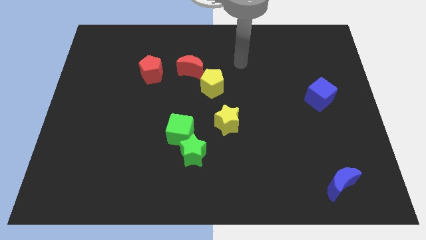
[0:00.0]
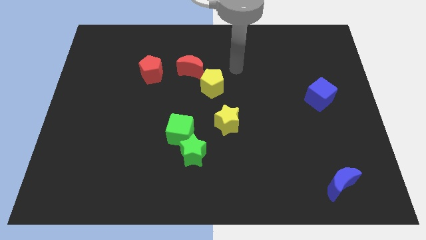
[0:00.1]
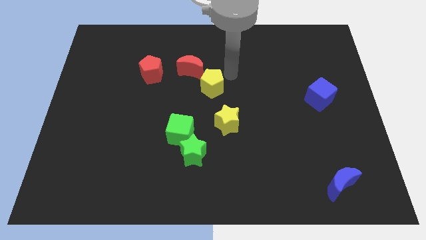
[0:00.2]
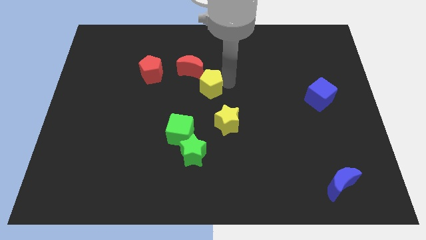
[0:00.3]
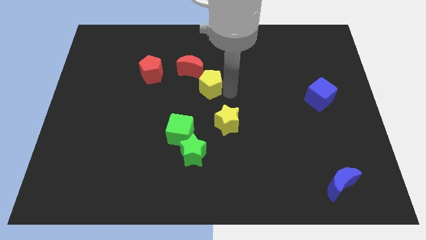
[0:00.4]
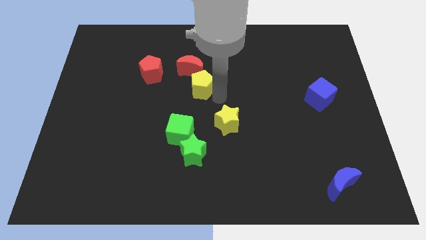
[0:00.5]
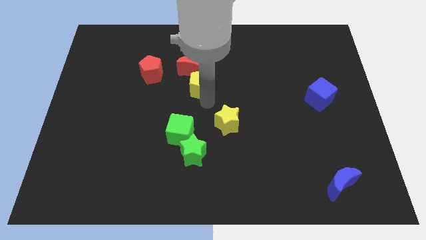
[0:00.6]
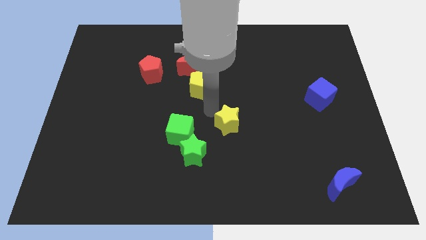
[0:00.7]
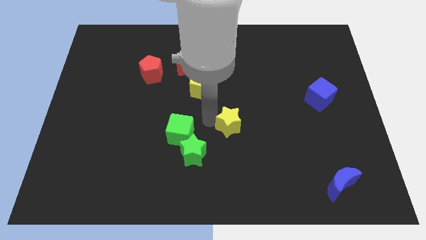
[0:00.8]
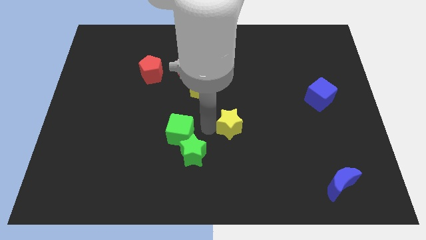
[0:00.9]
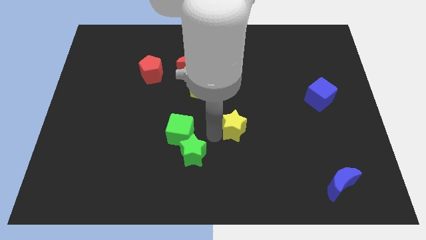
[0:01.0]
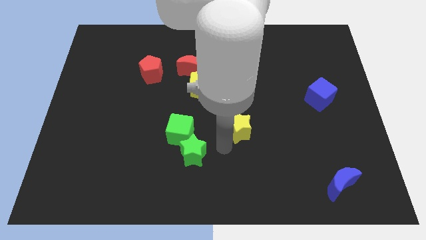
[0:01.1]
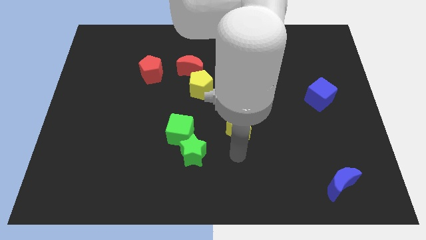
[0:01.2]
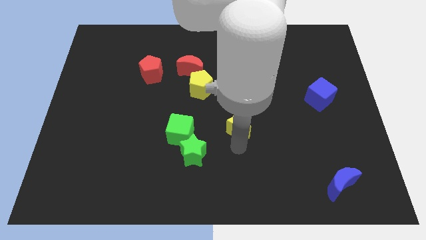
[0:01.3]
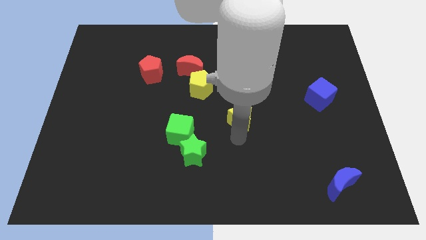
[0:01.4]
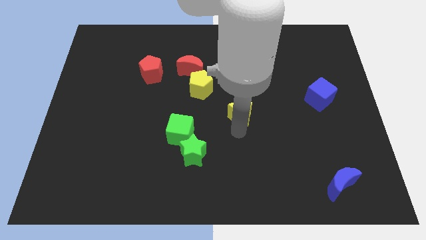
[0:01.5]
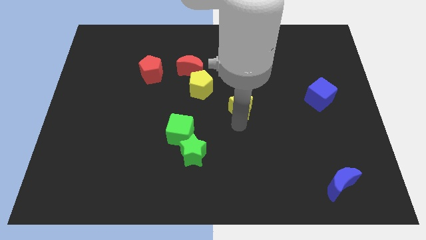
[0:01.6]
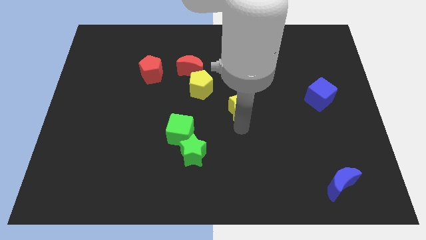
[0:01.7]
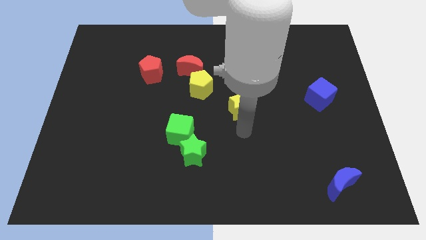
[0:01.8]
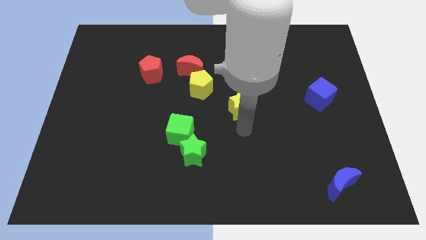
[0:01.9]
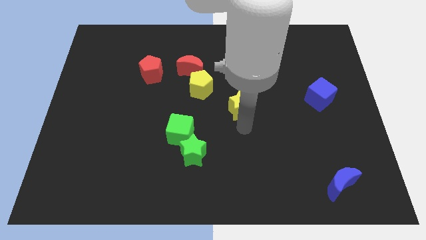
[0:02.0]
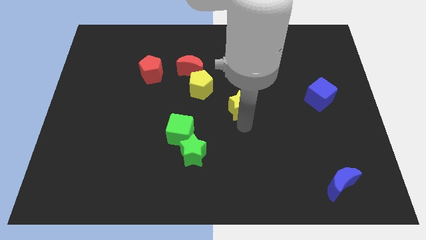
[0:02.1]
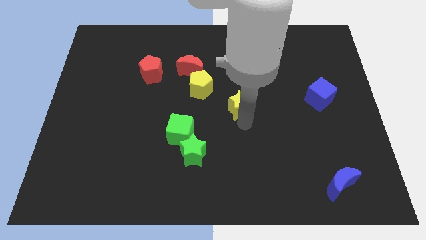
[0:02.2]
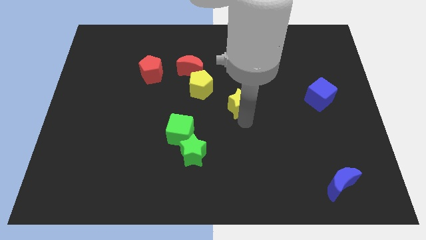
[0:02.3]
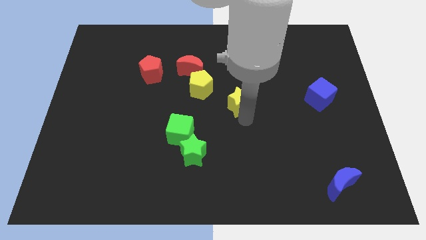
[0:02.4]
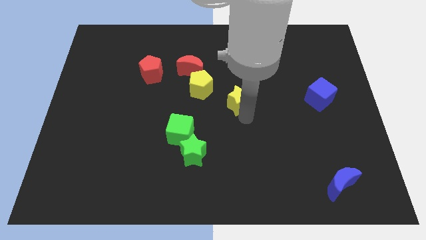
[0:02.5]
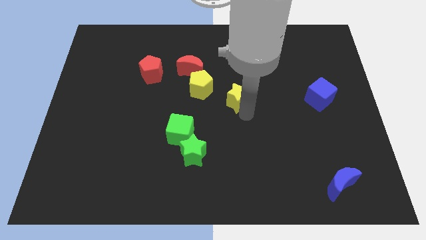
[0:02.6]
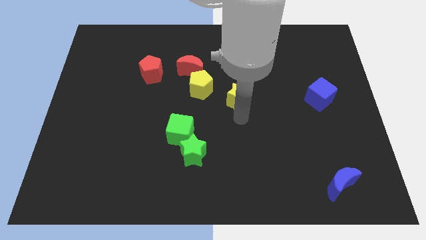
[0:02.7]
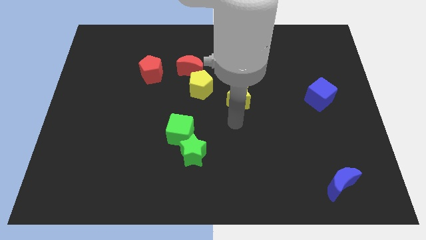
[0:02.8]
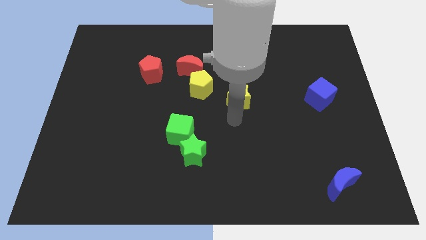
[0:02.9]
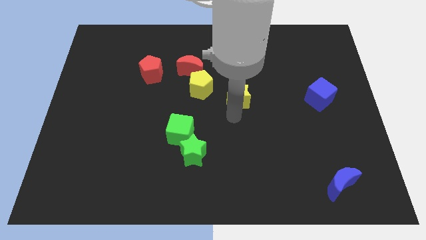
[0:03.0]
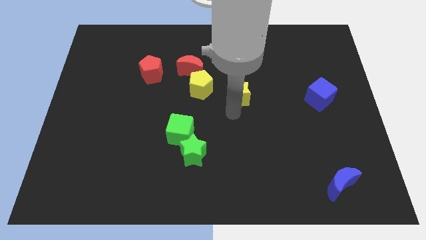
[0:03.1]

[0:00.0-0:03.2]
slightly push the yellow star up

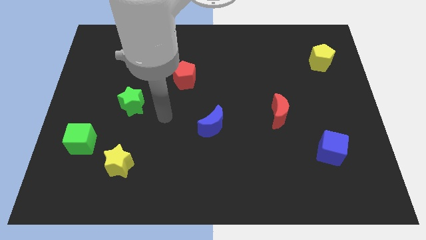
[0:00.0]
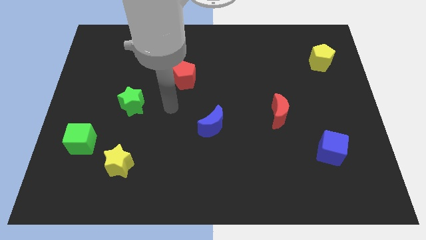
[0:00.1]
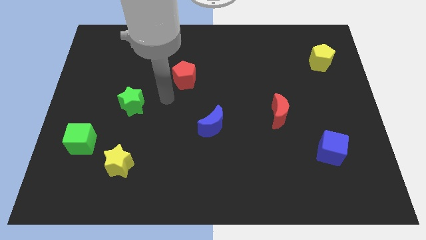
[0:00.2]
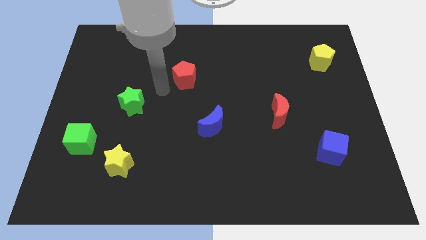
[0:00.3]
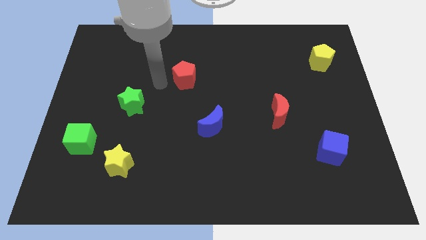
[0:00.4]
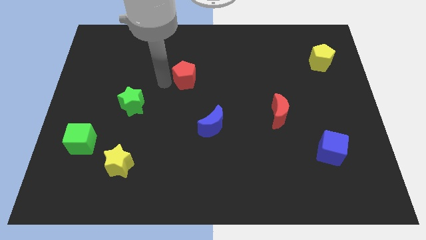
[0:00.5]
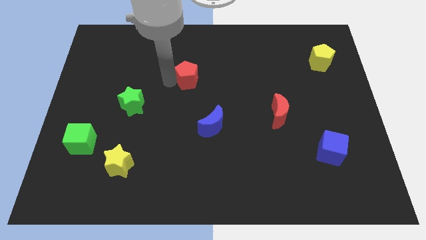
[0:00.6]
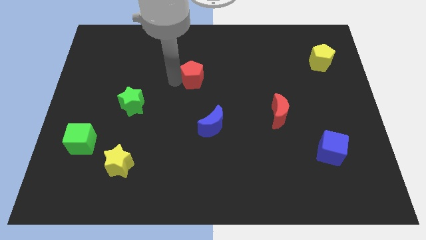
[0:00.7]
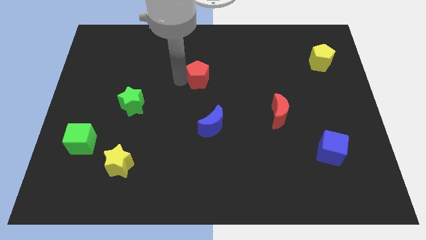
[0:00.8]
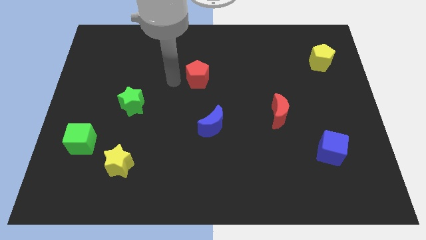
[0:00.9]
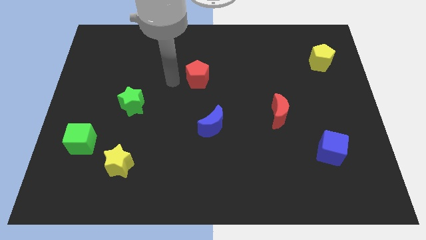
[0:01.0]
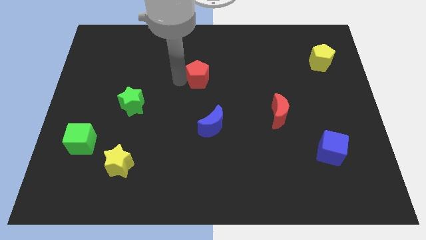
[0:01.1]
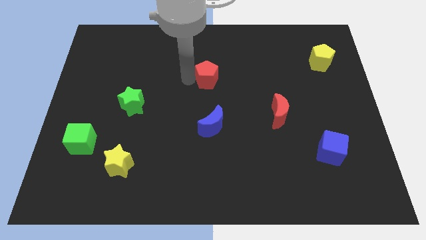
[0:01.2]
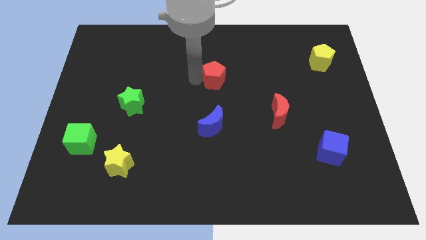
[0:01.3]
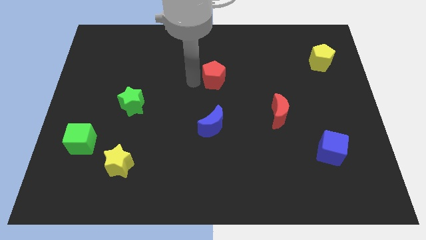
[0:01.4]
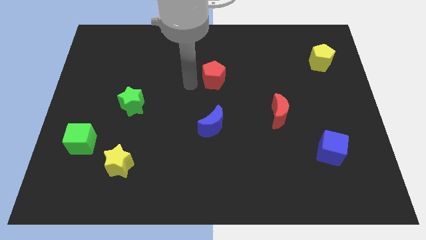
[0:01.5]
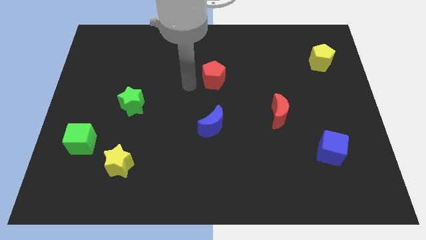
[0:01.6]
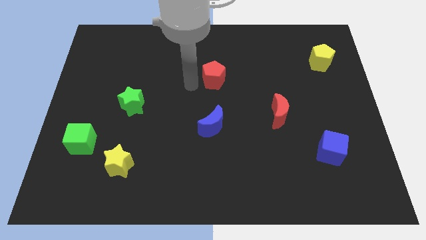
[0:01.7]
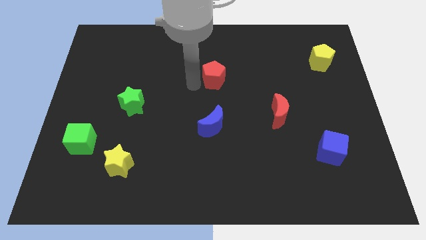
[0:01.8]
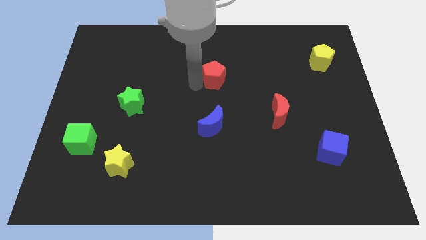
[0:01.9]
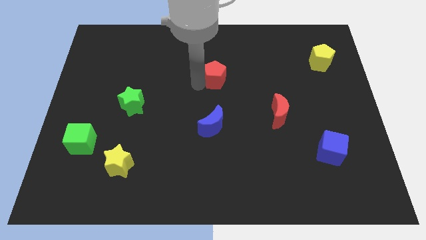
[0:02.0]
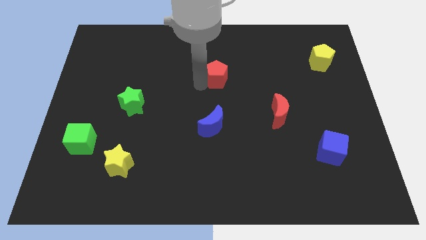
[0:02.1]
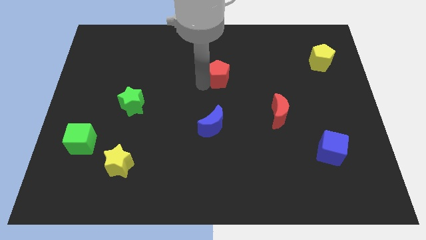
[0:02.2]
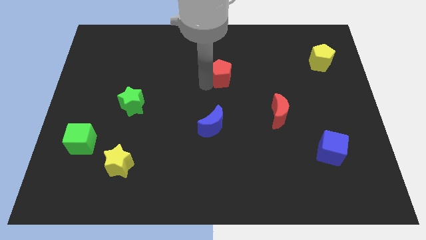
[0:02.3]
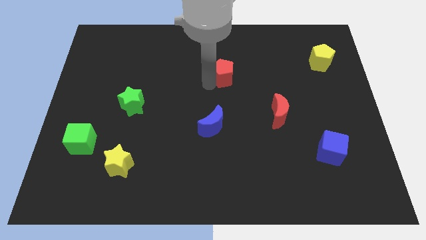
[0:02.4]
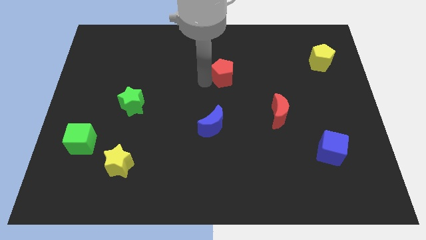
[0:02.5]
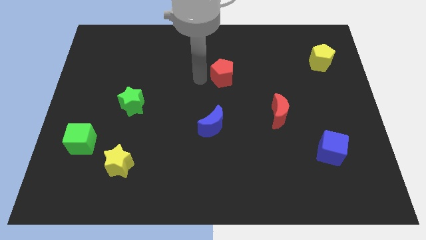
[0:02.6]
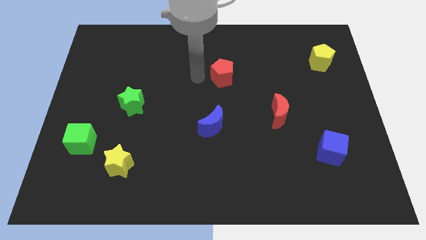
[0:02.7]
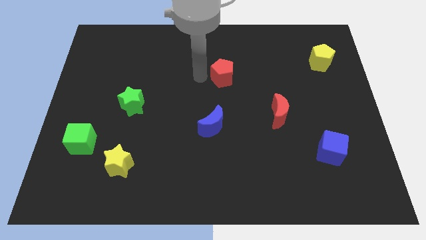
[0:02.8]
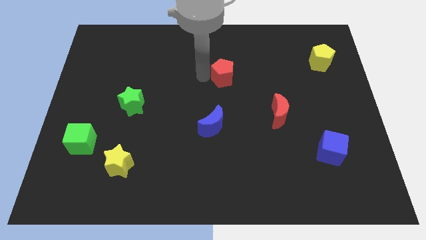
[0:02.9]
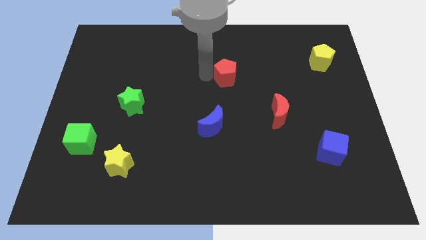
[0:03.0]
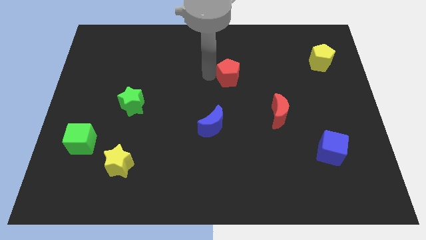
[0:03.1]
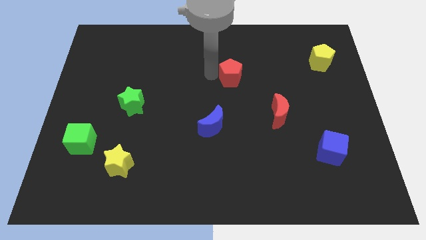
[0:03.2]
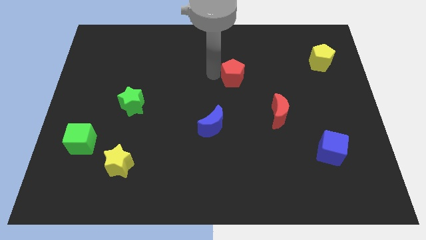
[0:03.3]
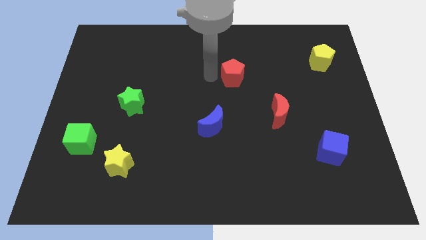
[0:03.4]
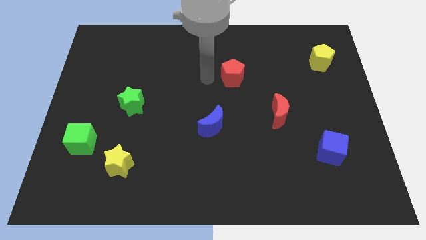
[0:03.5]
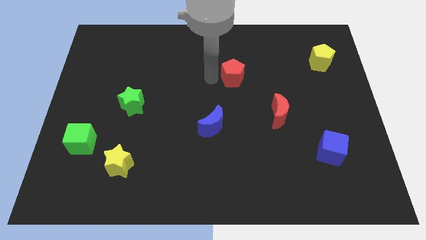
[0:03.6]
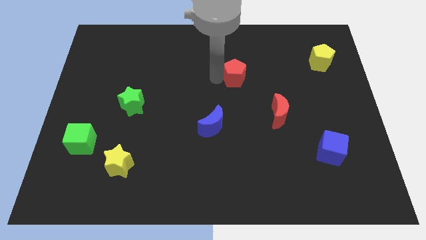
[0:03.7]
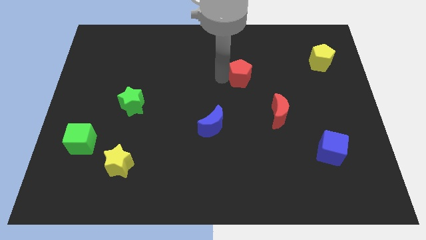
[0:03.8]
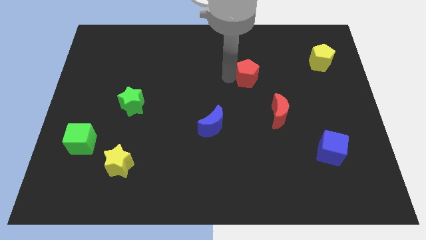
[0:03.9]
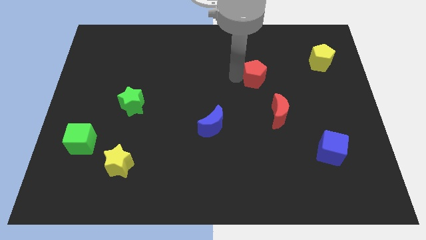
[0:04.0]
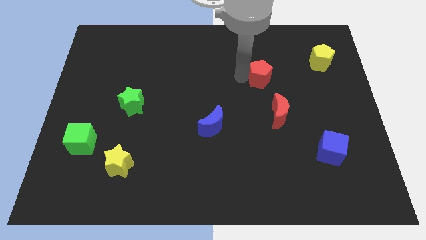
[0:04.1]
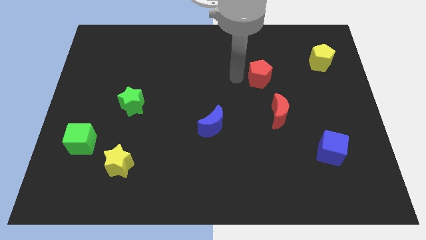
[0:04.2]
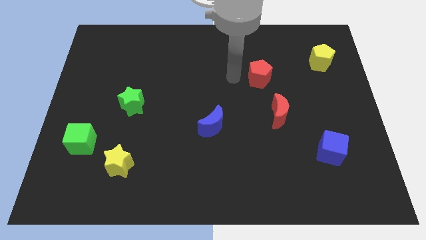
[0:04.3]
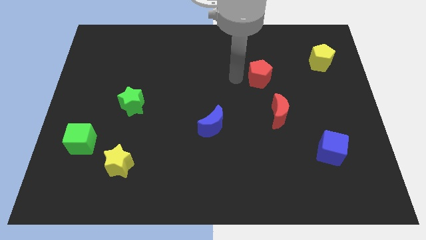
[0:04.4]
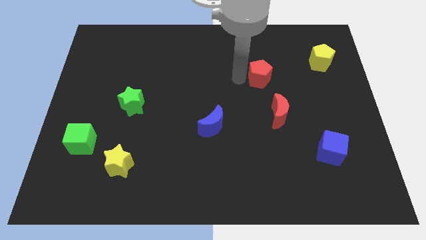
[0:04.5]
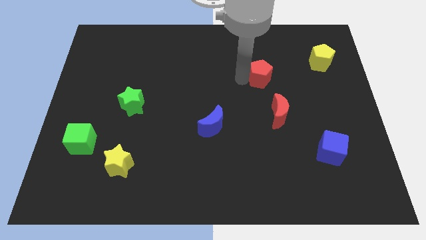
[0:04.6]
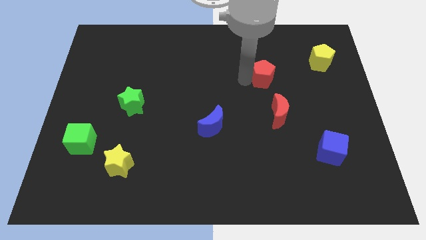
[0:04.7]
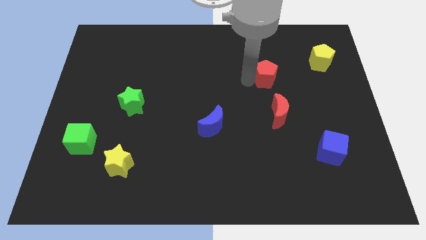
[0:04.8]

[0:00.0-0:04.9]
slide the red pentagon right

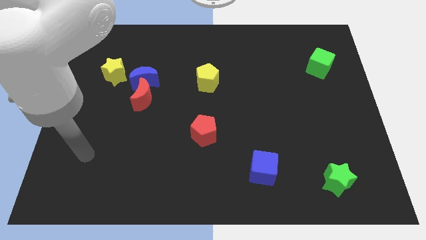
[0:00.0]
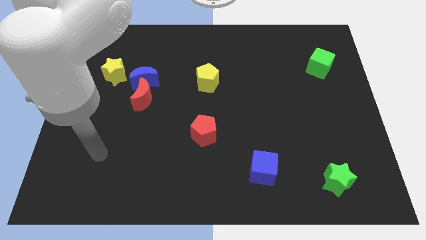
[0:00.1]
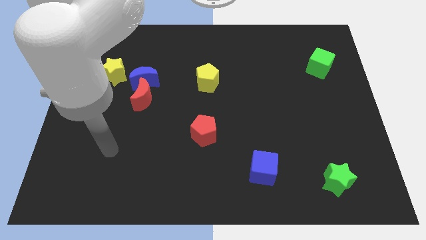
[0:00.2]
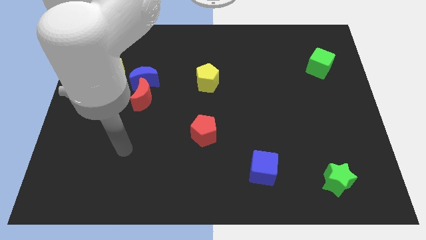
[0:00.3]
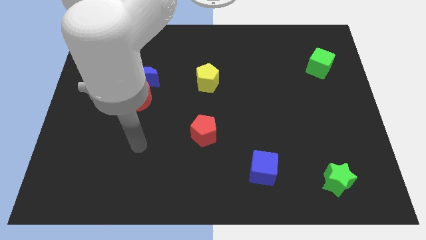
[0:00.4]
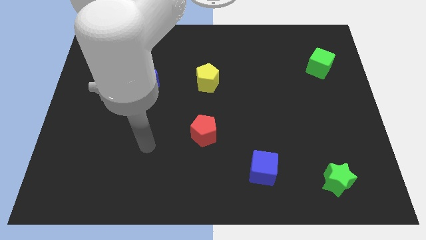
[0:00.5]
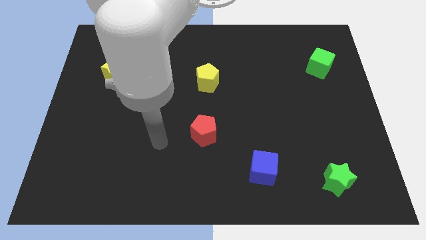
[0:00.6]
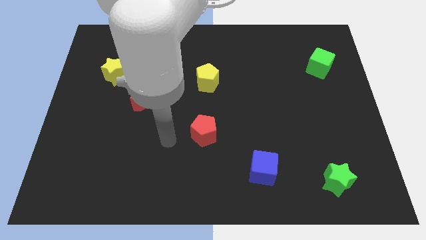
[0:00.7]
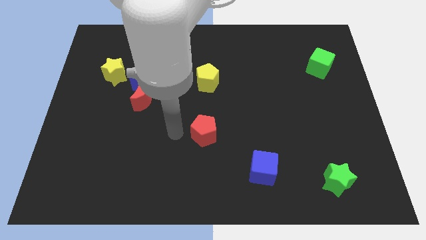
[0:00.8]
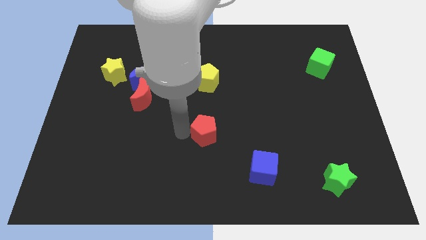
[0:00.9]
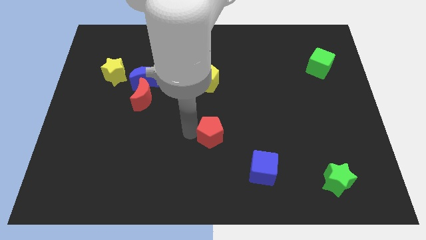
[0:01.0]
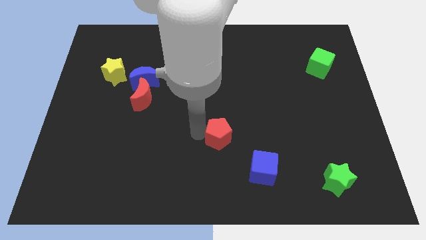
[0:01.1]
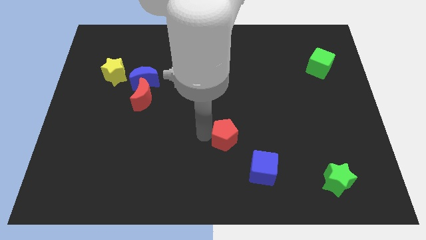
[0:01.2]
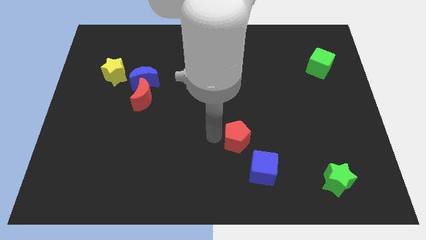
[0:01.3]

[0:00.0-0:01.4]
move the red pentagon a little right
